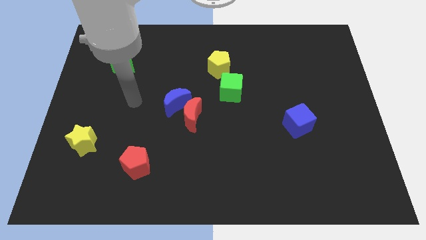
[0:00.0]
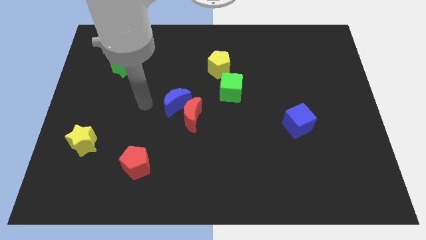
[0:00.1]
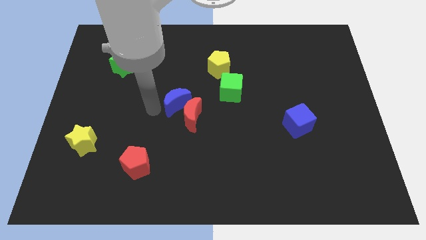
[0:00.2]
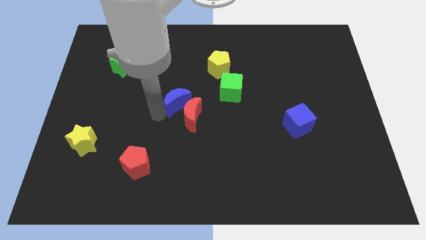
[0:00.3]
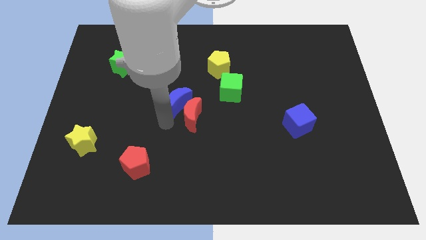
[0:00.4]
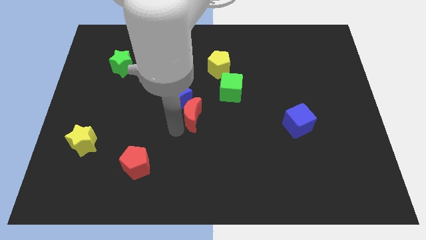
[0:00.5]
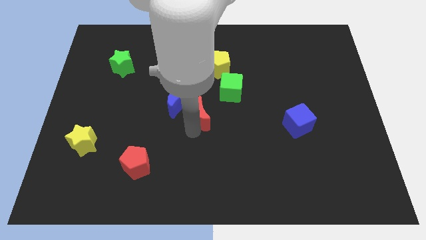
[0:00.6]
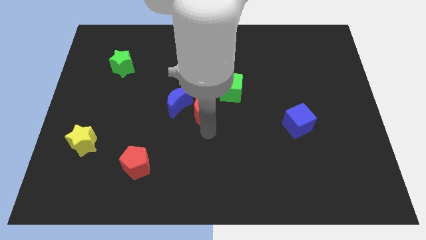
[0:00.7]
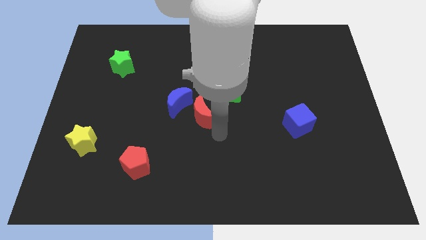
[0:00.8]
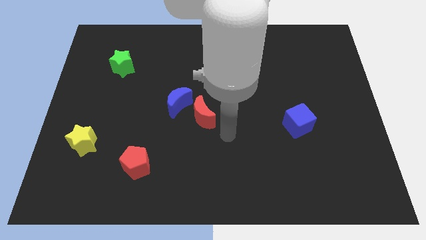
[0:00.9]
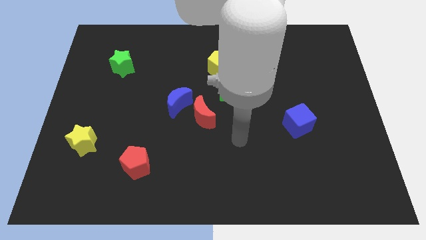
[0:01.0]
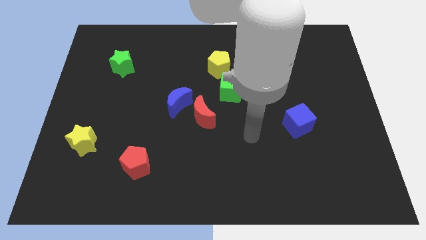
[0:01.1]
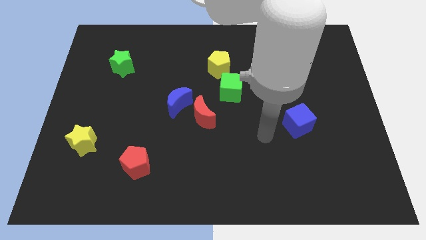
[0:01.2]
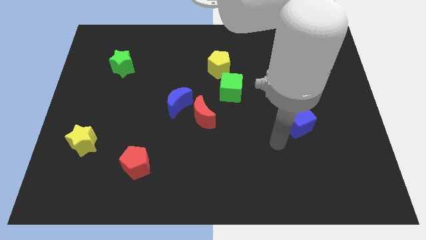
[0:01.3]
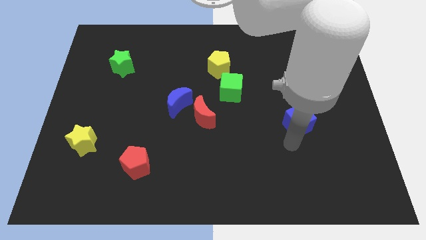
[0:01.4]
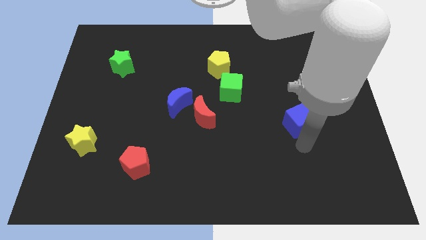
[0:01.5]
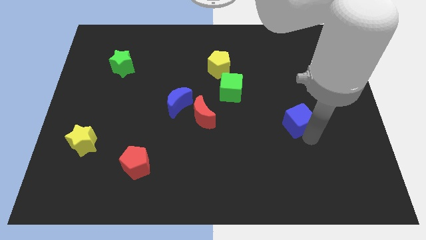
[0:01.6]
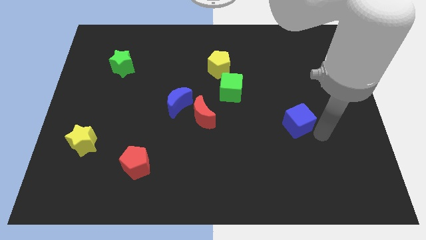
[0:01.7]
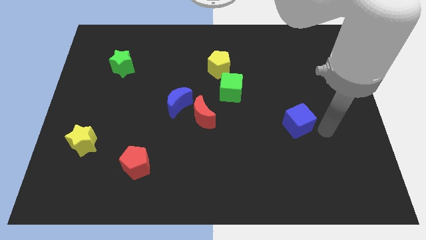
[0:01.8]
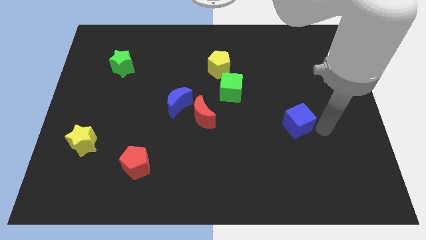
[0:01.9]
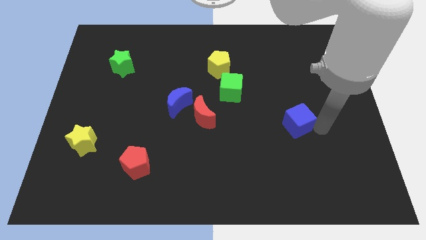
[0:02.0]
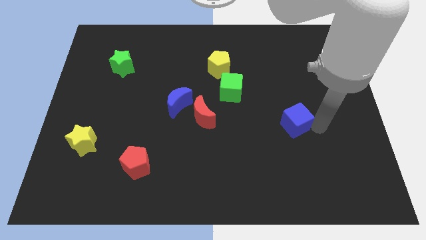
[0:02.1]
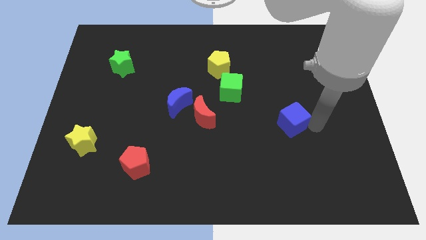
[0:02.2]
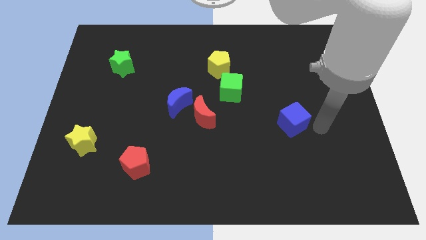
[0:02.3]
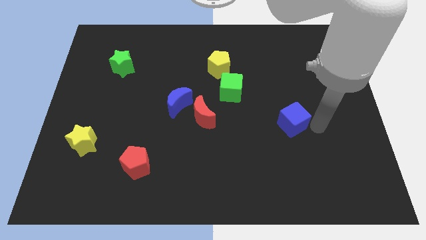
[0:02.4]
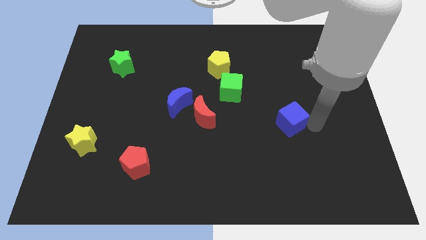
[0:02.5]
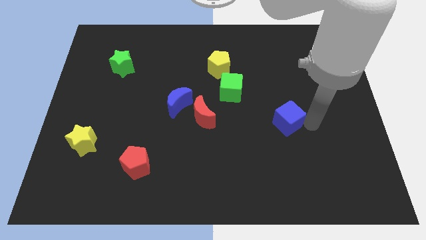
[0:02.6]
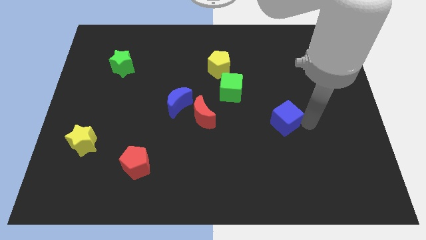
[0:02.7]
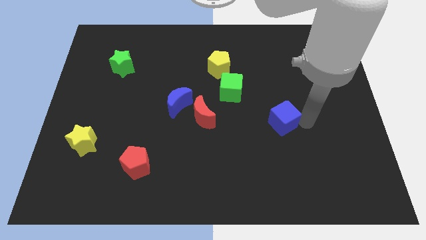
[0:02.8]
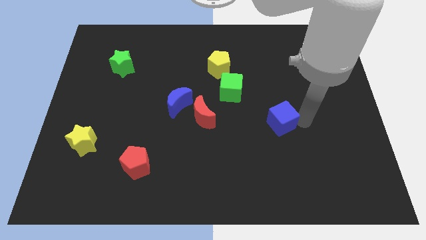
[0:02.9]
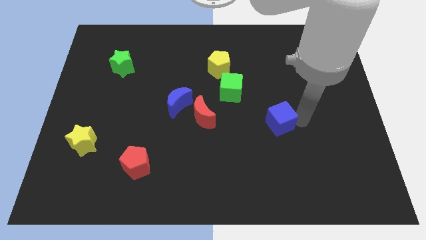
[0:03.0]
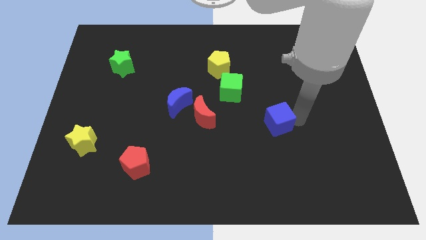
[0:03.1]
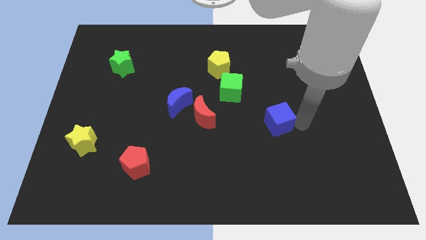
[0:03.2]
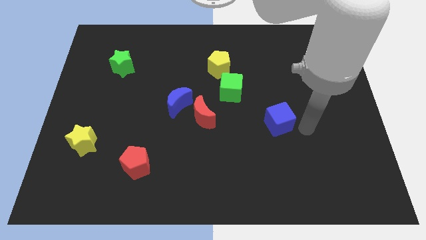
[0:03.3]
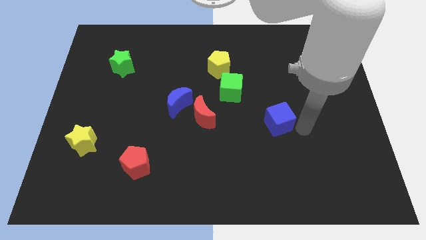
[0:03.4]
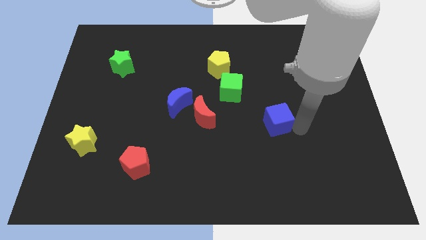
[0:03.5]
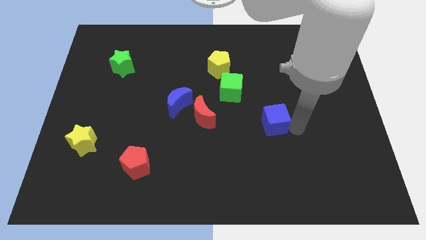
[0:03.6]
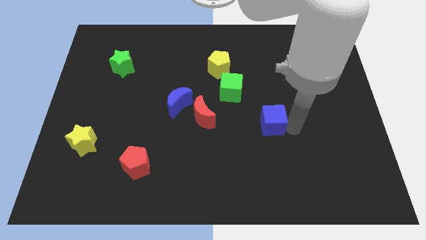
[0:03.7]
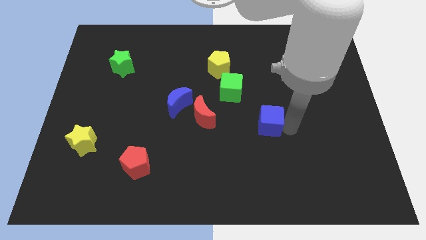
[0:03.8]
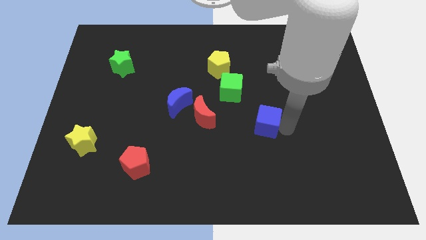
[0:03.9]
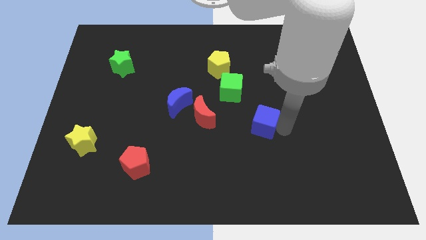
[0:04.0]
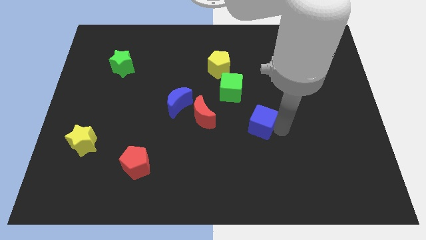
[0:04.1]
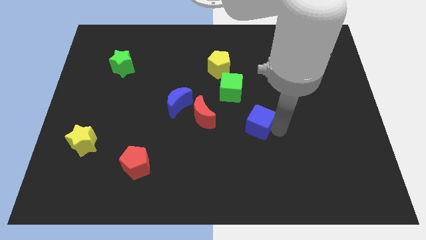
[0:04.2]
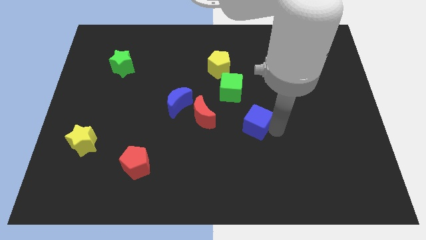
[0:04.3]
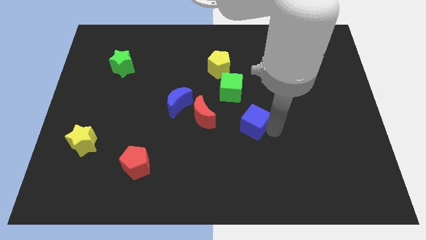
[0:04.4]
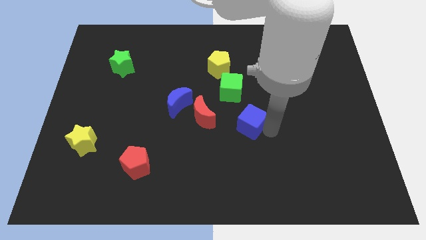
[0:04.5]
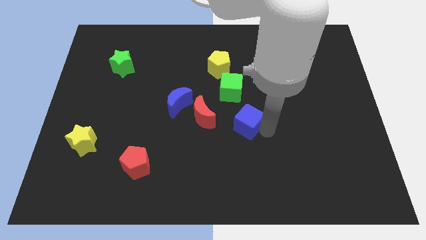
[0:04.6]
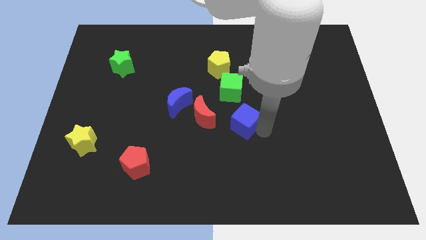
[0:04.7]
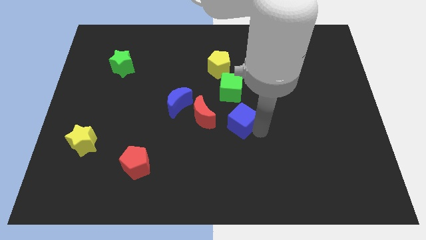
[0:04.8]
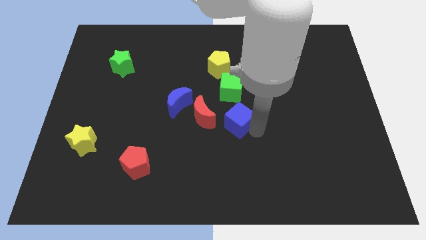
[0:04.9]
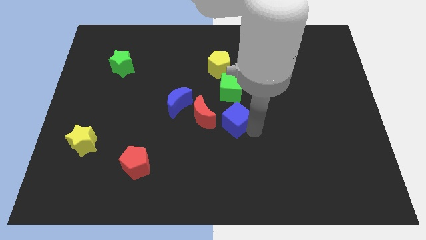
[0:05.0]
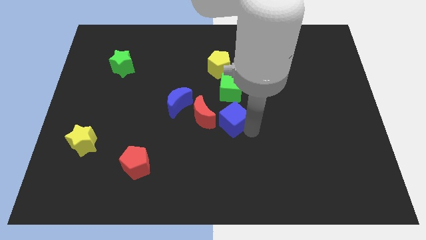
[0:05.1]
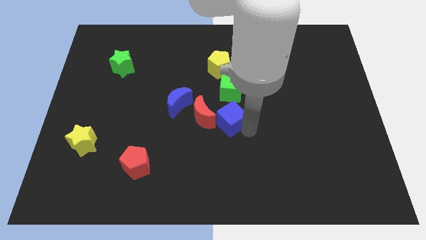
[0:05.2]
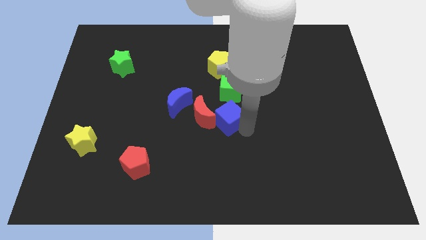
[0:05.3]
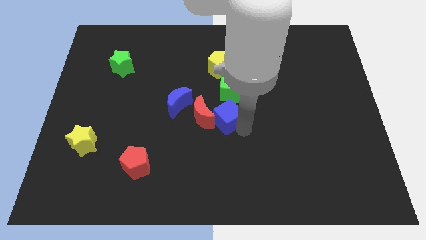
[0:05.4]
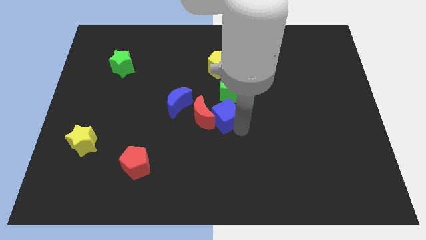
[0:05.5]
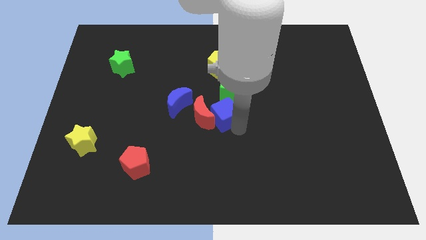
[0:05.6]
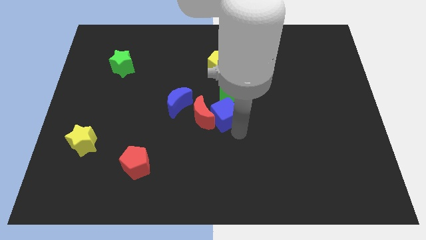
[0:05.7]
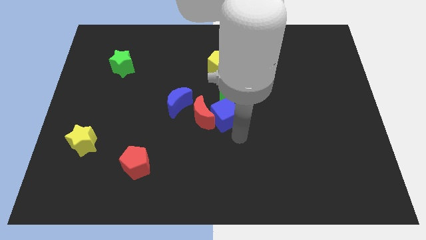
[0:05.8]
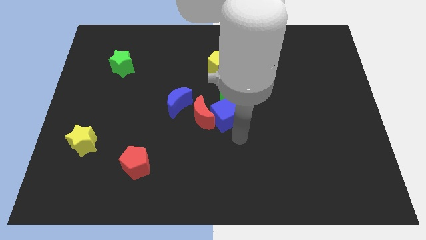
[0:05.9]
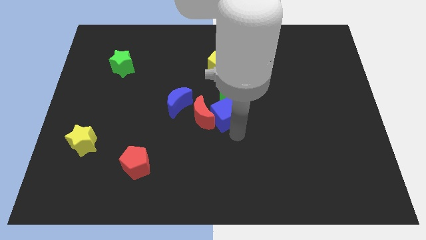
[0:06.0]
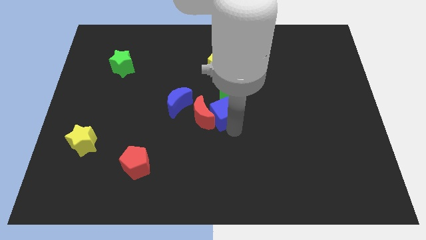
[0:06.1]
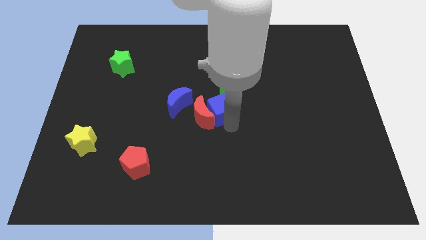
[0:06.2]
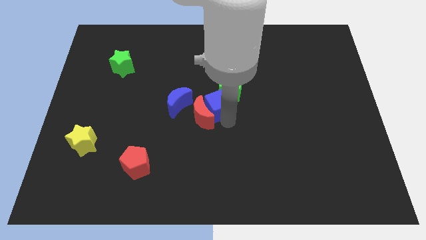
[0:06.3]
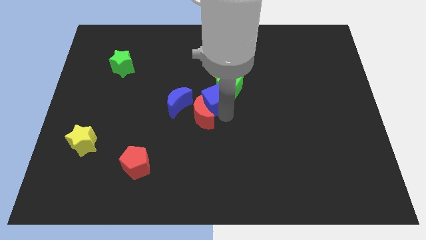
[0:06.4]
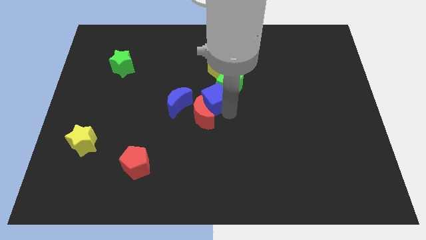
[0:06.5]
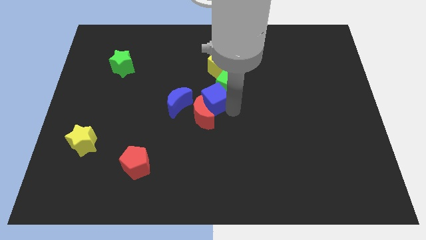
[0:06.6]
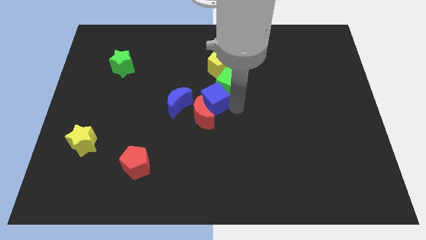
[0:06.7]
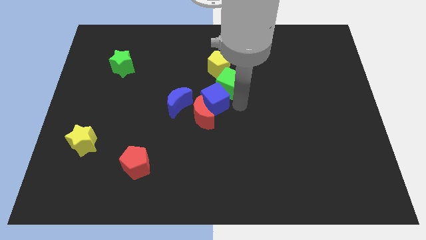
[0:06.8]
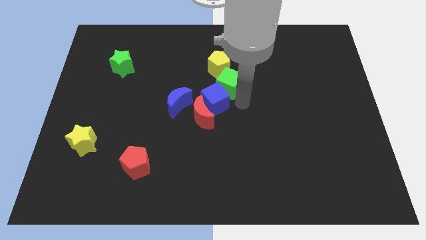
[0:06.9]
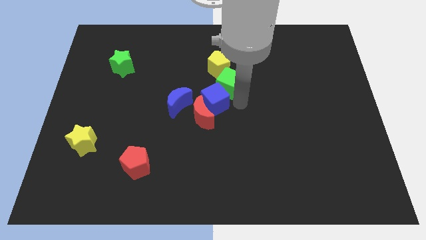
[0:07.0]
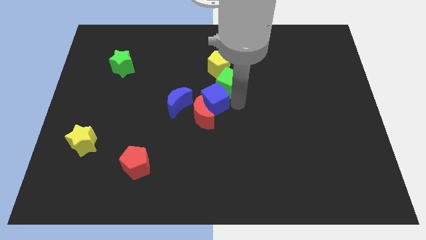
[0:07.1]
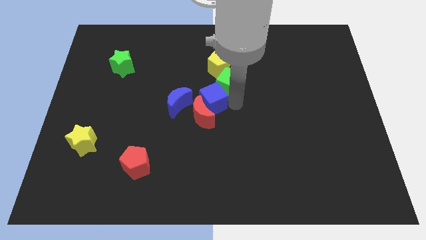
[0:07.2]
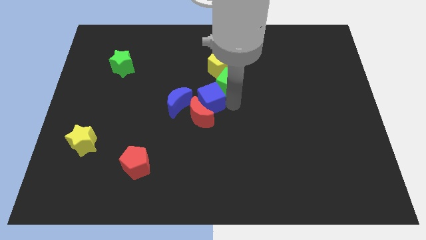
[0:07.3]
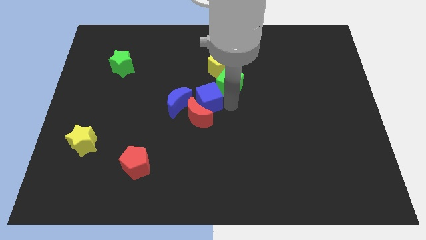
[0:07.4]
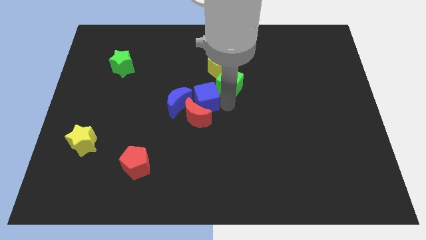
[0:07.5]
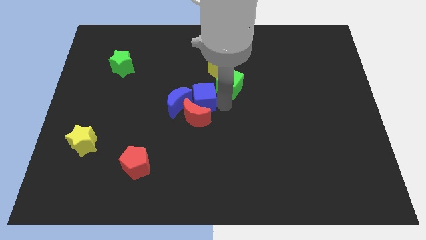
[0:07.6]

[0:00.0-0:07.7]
push the blue cube close to the blue moon
